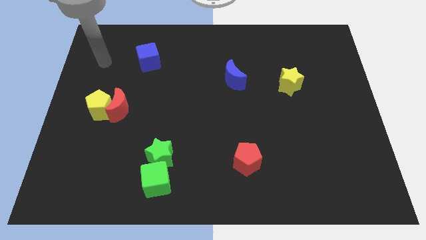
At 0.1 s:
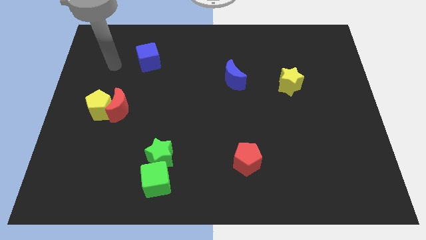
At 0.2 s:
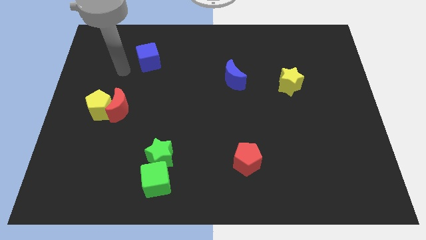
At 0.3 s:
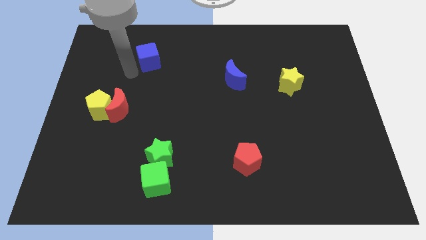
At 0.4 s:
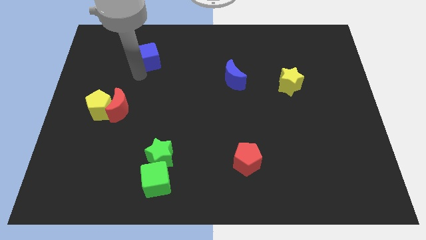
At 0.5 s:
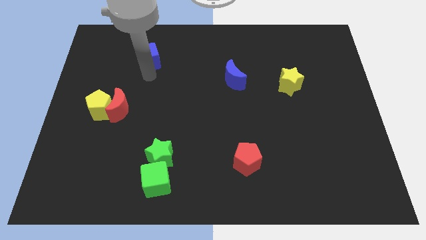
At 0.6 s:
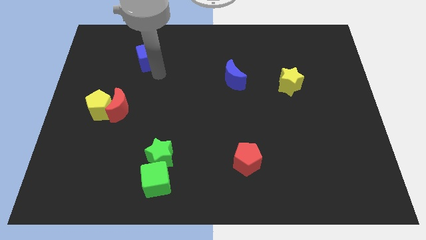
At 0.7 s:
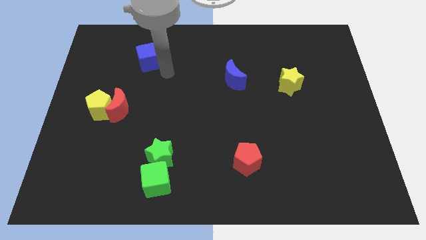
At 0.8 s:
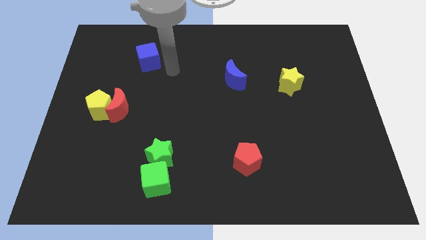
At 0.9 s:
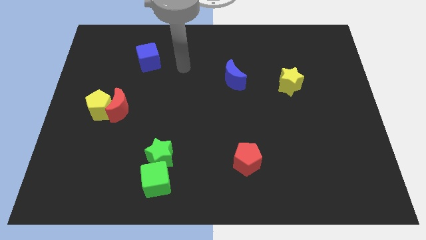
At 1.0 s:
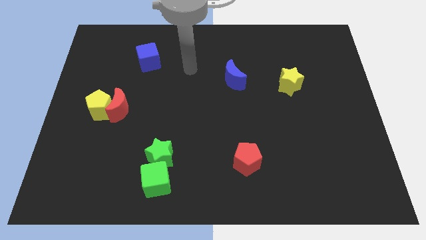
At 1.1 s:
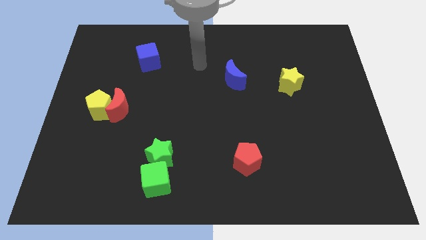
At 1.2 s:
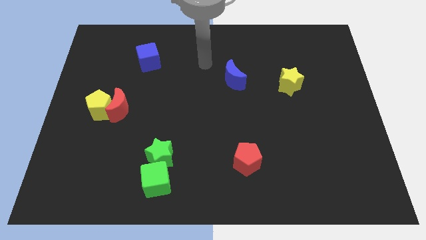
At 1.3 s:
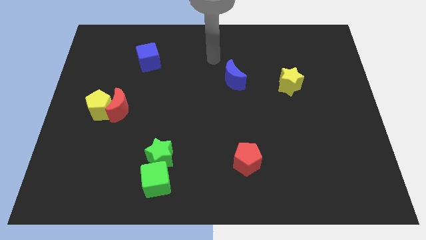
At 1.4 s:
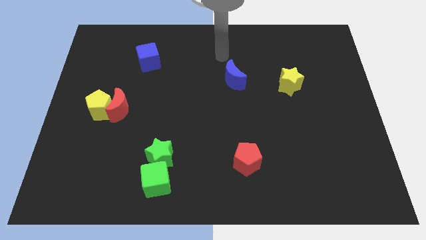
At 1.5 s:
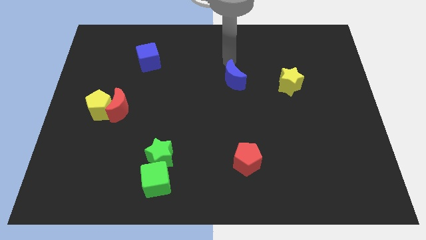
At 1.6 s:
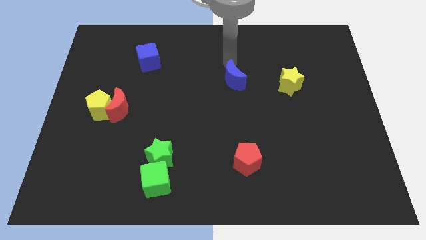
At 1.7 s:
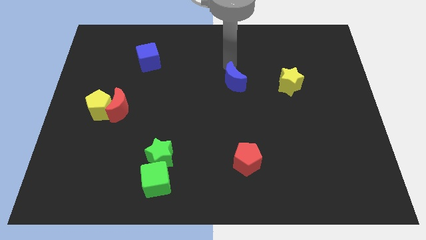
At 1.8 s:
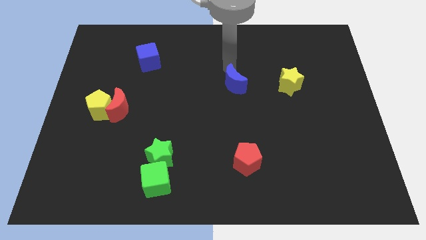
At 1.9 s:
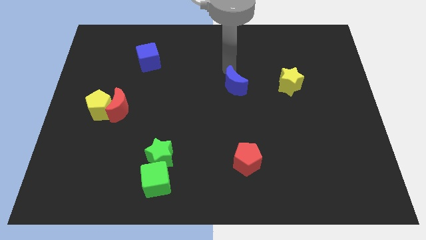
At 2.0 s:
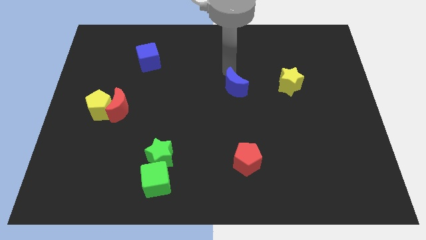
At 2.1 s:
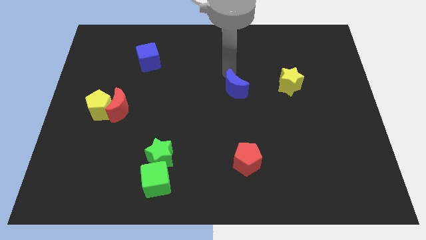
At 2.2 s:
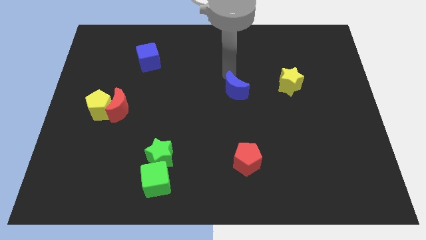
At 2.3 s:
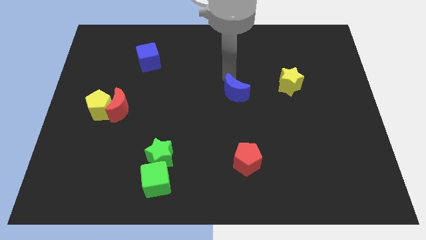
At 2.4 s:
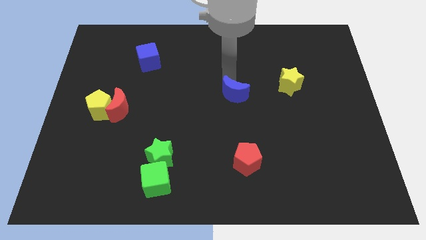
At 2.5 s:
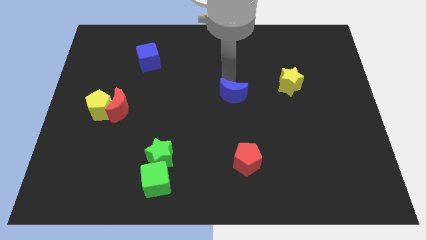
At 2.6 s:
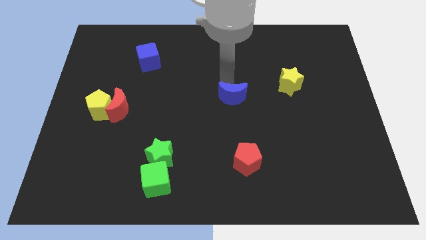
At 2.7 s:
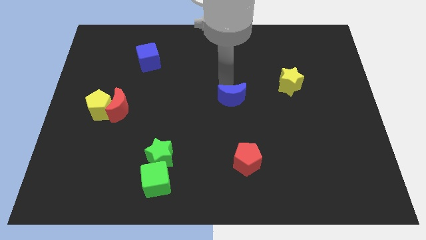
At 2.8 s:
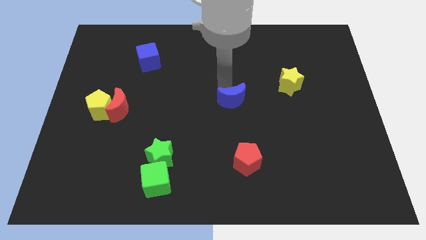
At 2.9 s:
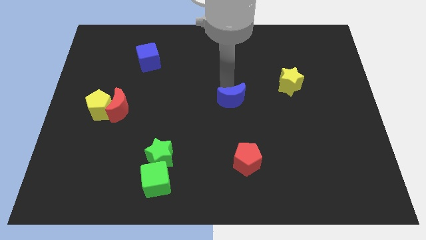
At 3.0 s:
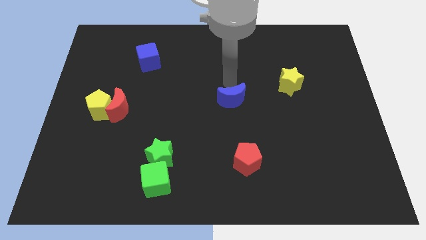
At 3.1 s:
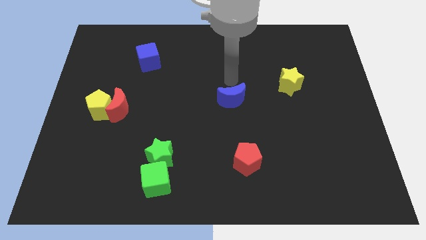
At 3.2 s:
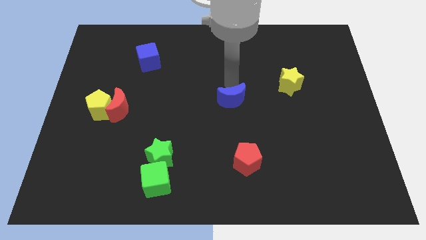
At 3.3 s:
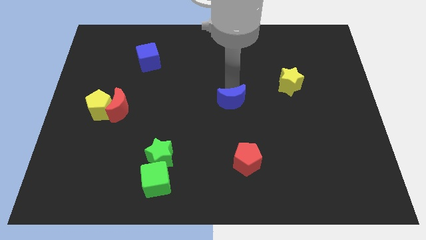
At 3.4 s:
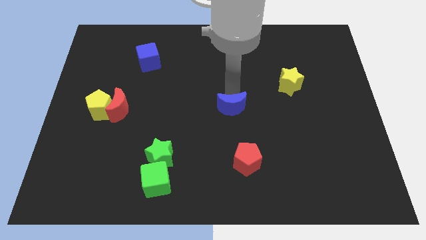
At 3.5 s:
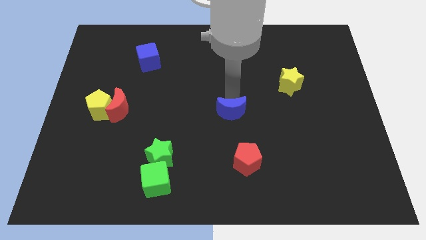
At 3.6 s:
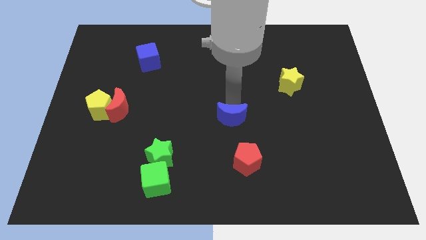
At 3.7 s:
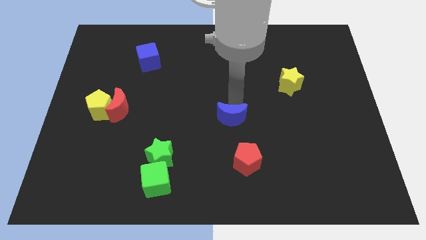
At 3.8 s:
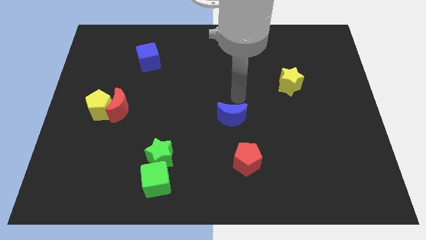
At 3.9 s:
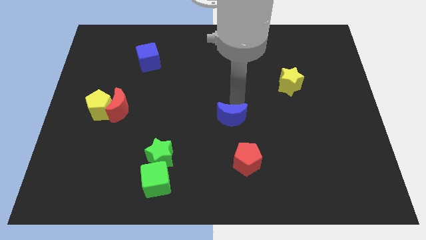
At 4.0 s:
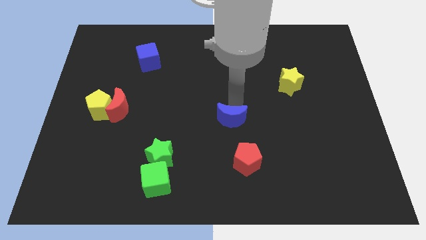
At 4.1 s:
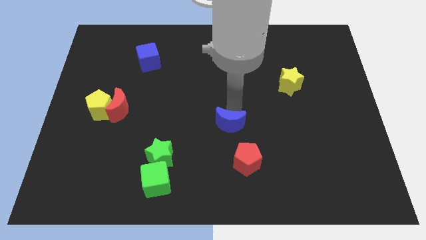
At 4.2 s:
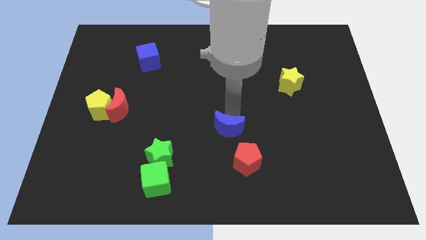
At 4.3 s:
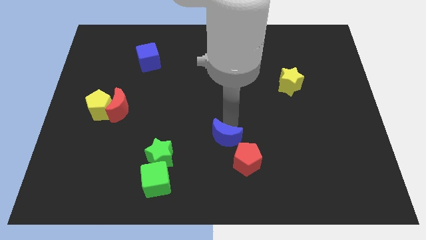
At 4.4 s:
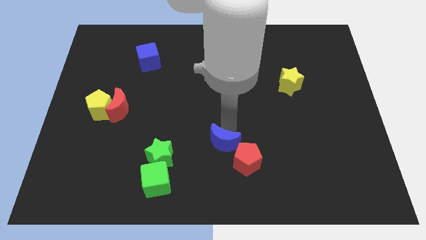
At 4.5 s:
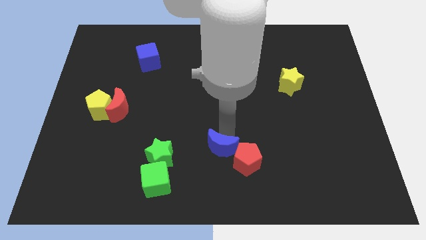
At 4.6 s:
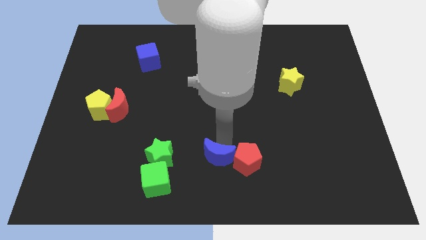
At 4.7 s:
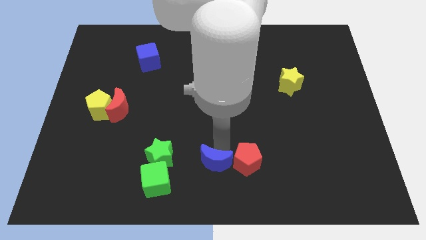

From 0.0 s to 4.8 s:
put the blue moon right of the green cube

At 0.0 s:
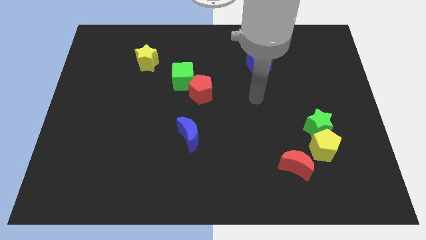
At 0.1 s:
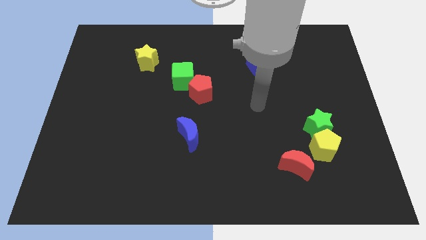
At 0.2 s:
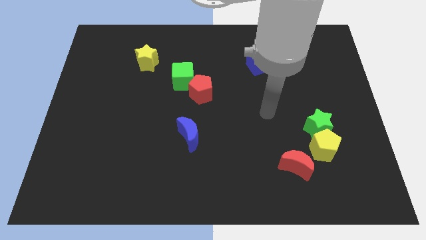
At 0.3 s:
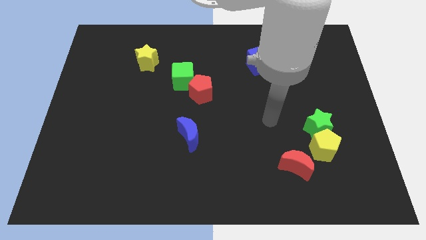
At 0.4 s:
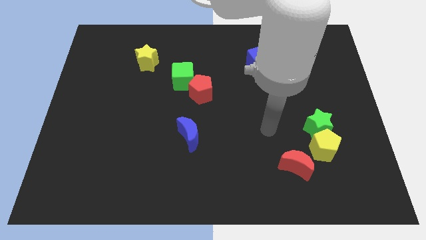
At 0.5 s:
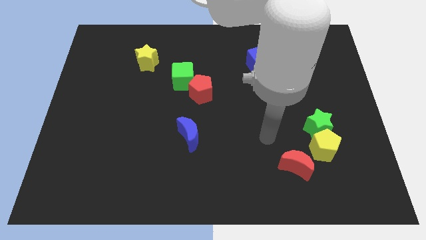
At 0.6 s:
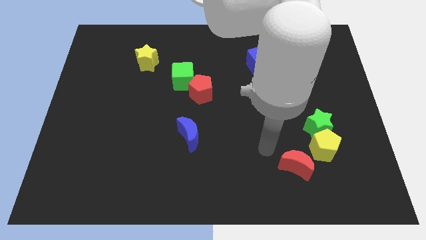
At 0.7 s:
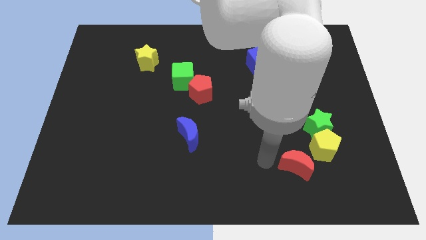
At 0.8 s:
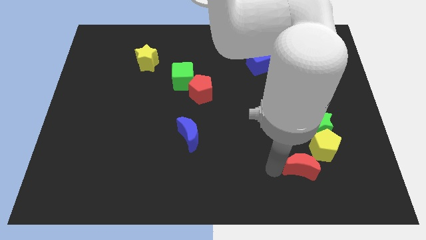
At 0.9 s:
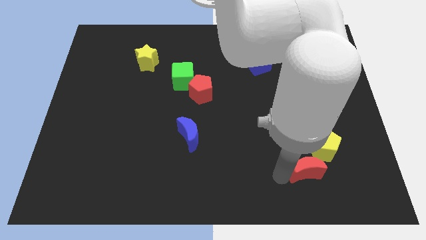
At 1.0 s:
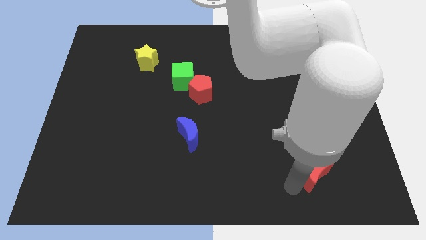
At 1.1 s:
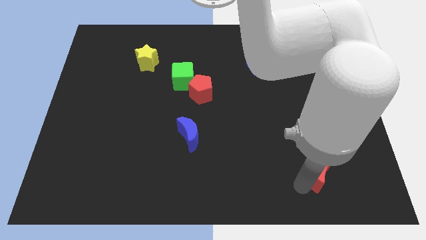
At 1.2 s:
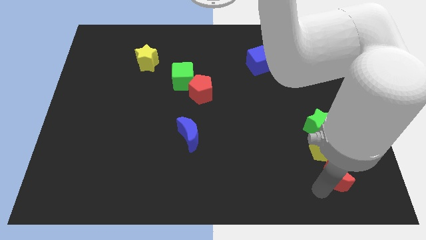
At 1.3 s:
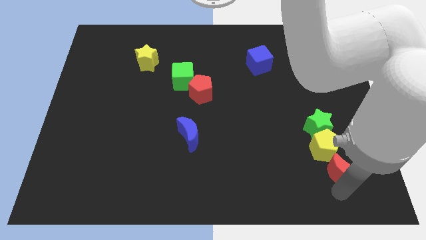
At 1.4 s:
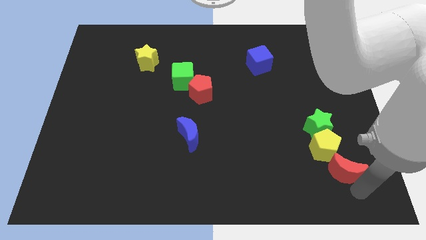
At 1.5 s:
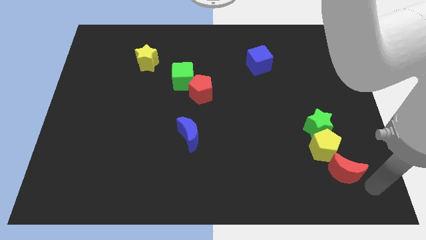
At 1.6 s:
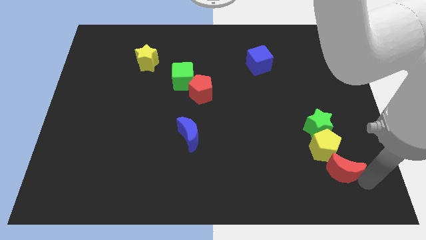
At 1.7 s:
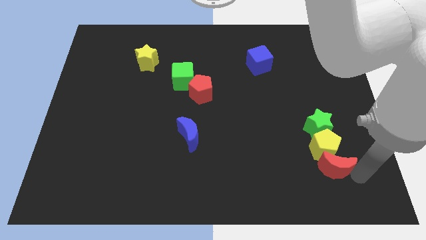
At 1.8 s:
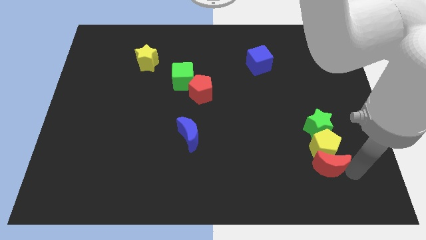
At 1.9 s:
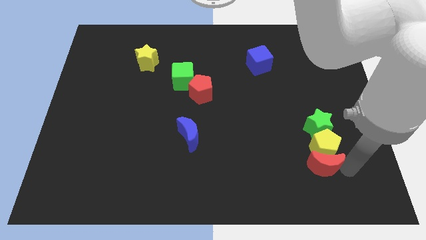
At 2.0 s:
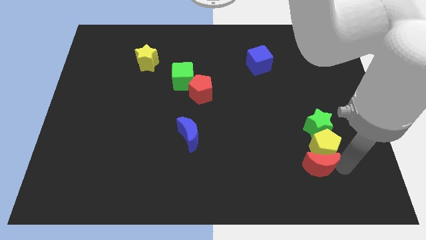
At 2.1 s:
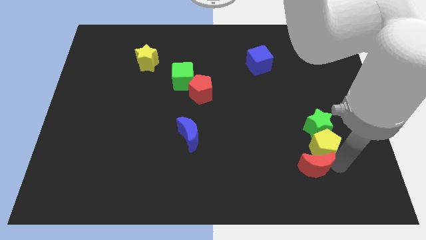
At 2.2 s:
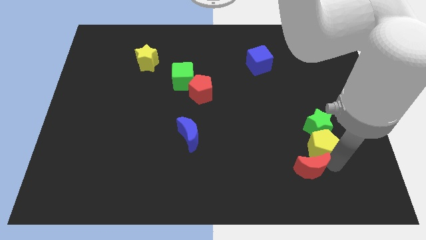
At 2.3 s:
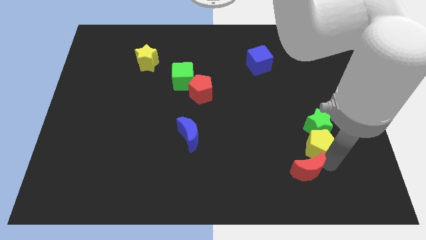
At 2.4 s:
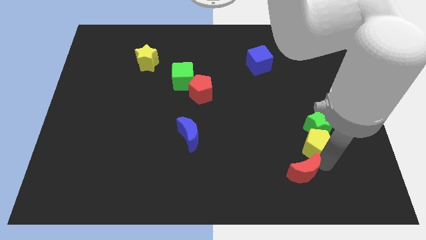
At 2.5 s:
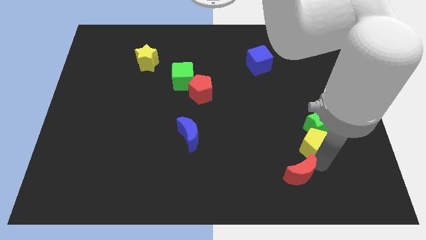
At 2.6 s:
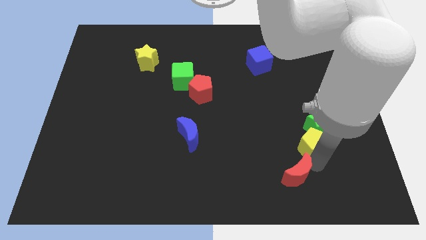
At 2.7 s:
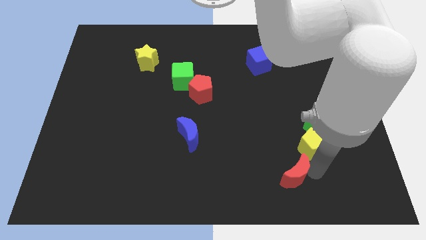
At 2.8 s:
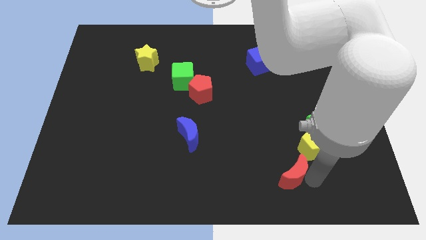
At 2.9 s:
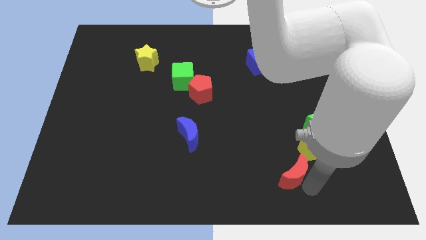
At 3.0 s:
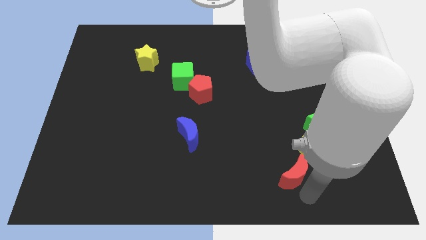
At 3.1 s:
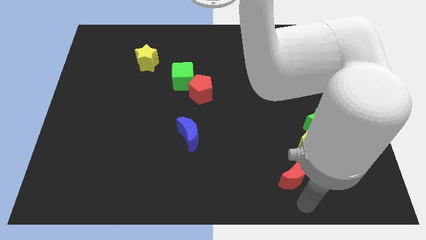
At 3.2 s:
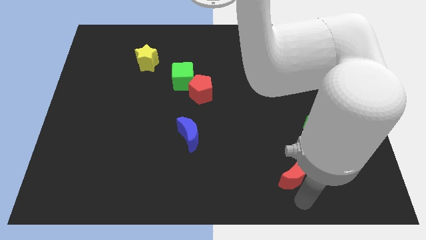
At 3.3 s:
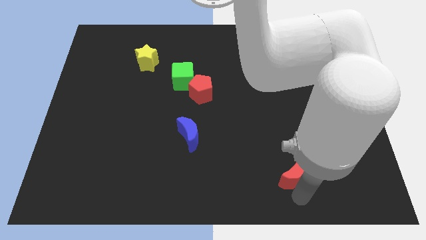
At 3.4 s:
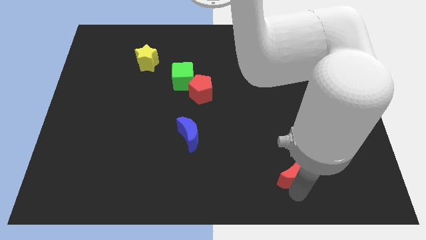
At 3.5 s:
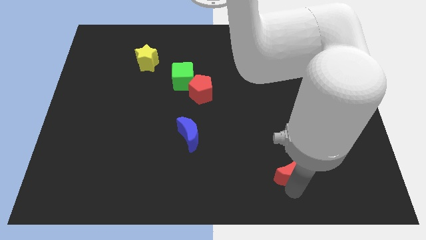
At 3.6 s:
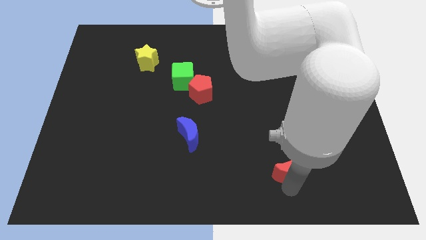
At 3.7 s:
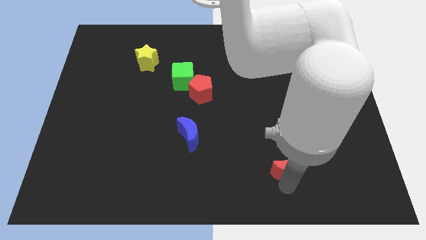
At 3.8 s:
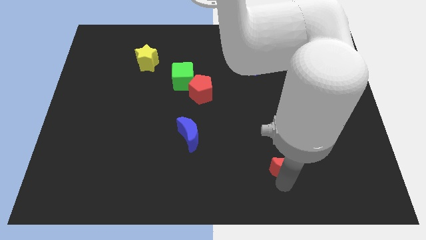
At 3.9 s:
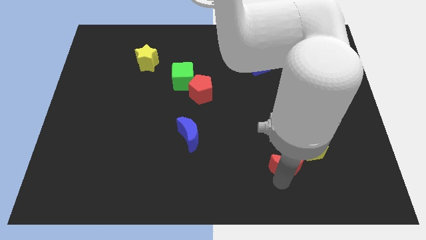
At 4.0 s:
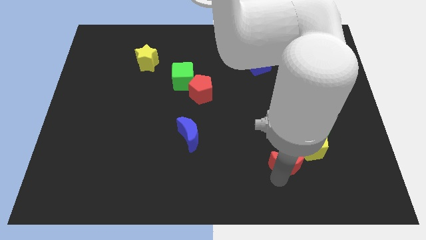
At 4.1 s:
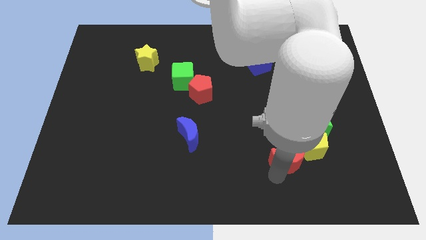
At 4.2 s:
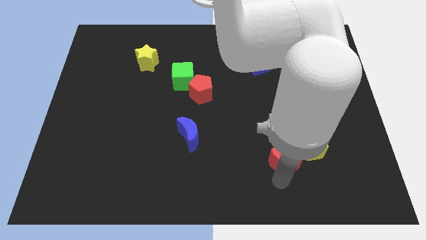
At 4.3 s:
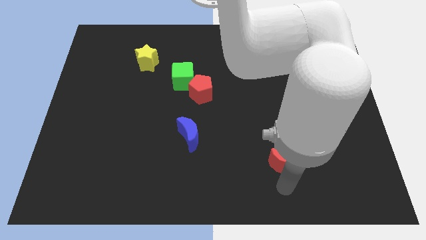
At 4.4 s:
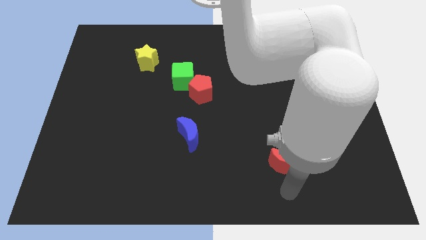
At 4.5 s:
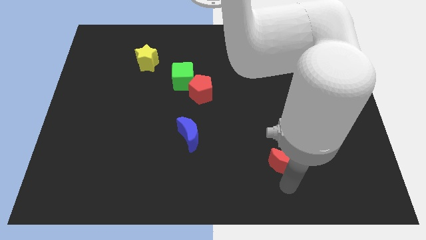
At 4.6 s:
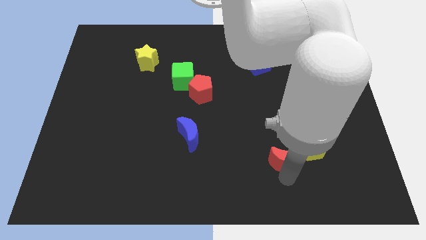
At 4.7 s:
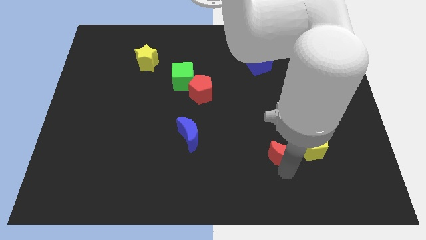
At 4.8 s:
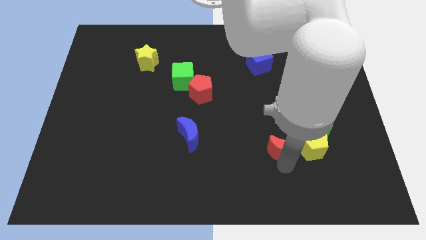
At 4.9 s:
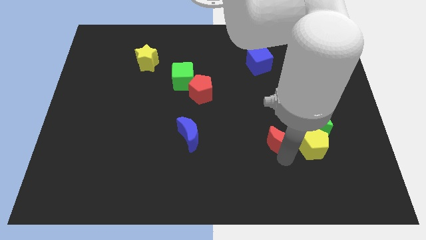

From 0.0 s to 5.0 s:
push the red moon to the left side of the green star
